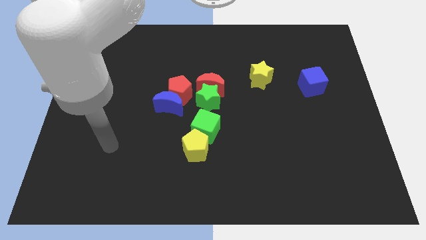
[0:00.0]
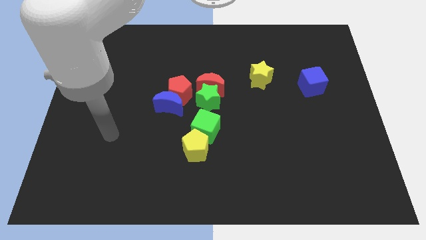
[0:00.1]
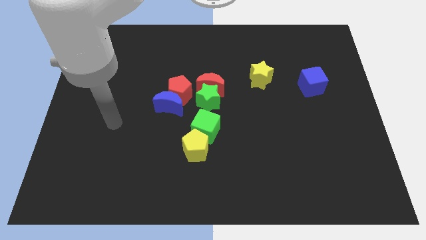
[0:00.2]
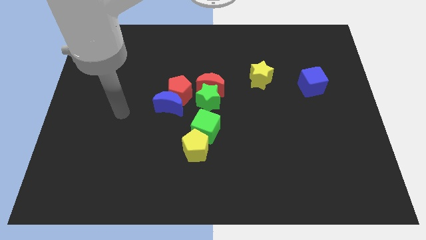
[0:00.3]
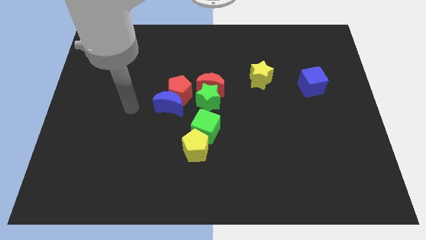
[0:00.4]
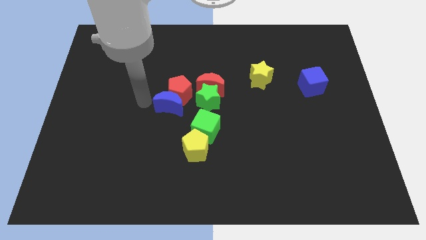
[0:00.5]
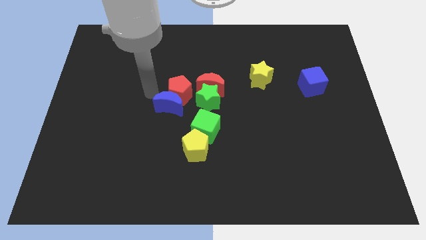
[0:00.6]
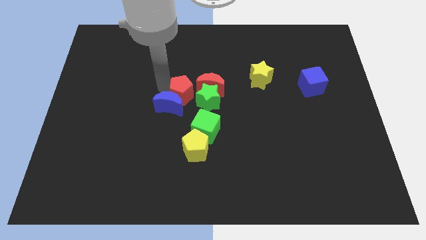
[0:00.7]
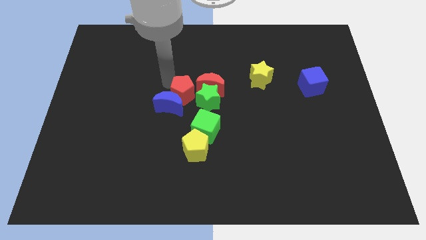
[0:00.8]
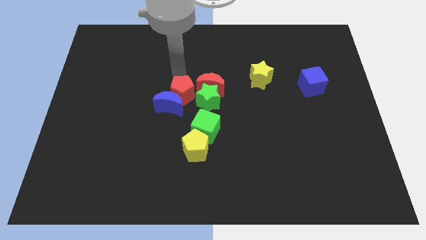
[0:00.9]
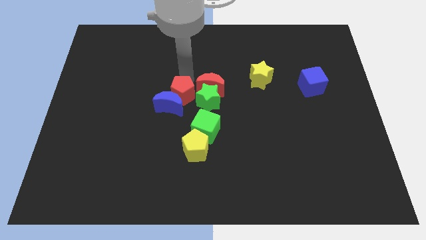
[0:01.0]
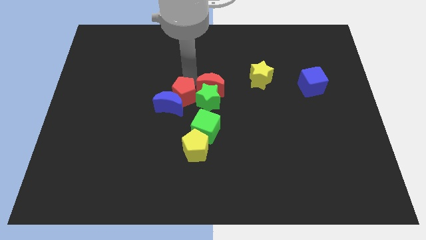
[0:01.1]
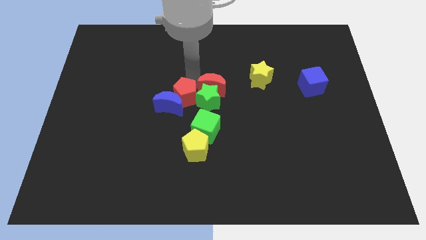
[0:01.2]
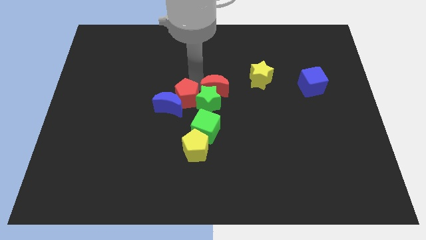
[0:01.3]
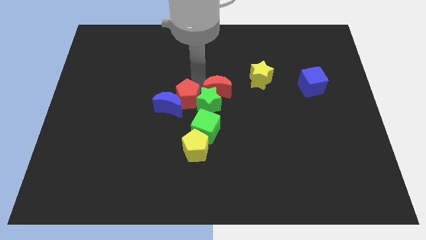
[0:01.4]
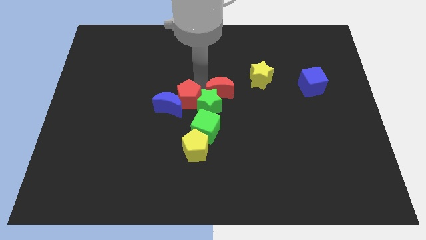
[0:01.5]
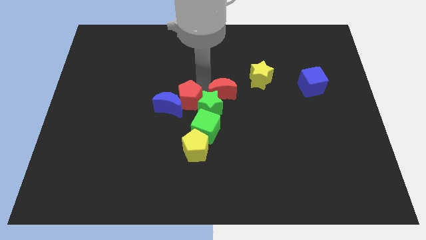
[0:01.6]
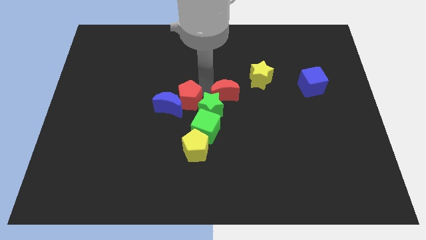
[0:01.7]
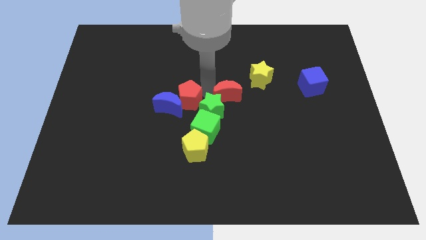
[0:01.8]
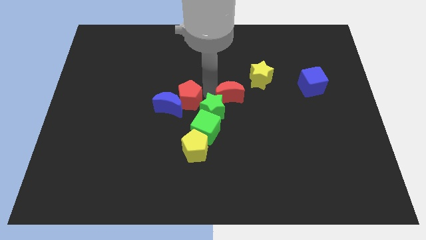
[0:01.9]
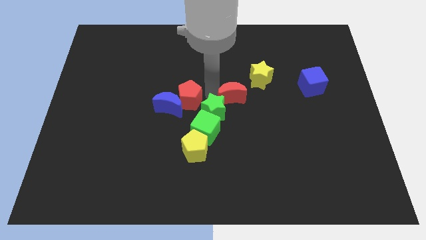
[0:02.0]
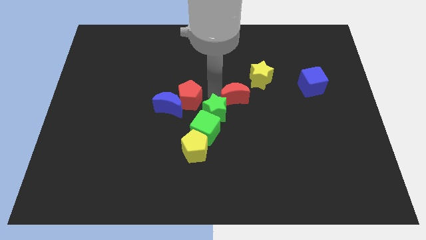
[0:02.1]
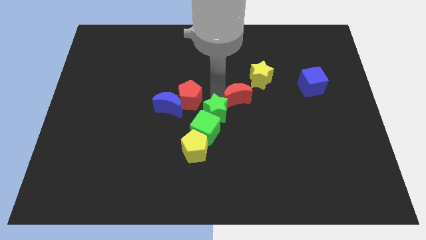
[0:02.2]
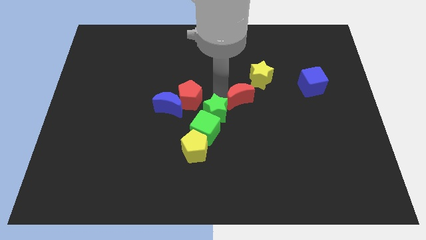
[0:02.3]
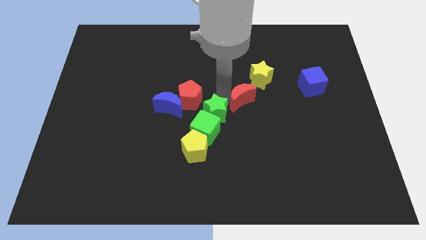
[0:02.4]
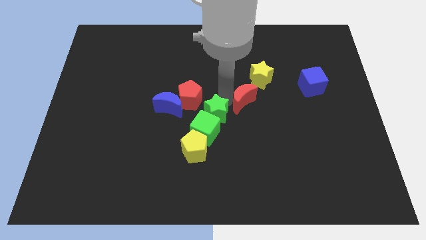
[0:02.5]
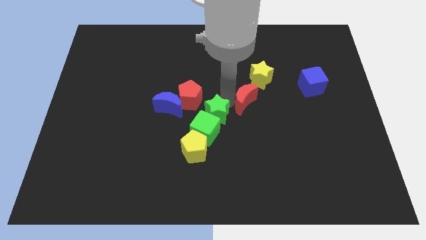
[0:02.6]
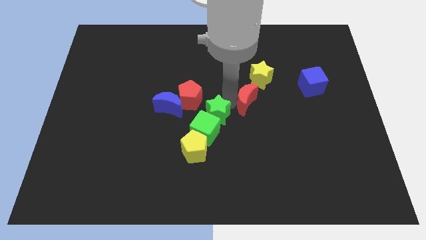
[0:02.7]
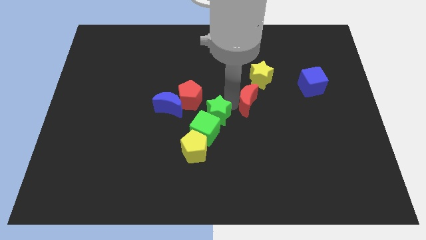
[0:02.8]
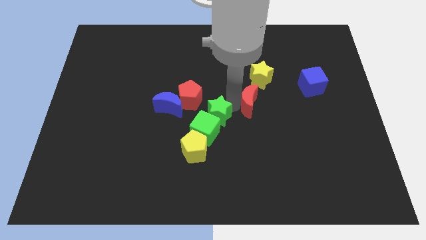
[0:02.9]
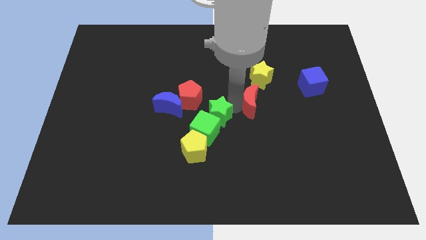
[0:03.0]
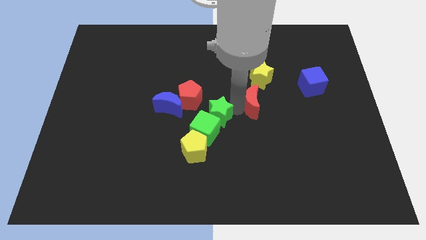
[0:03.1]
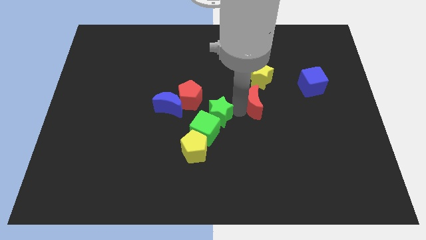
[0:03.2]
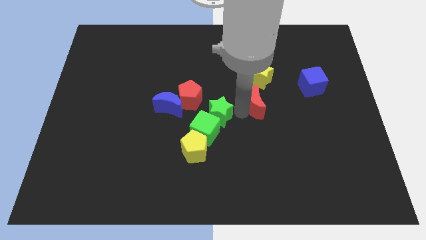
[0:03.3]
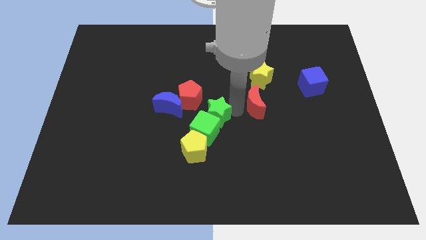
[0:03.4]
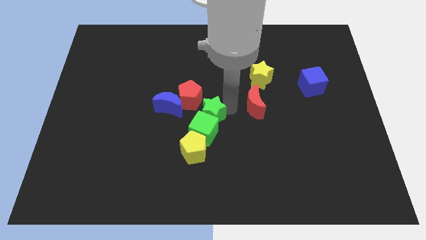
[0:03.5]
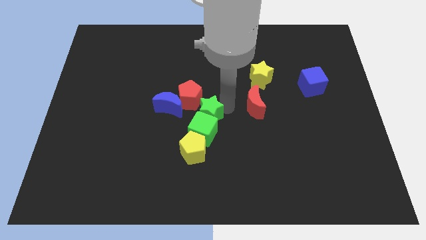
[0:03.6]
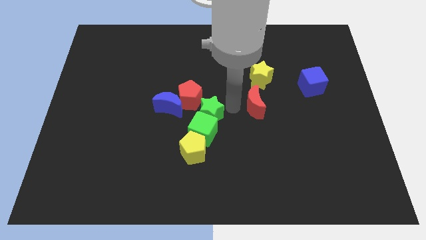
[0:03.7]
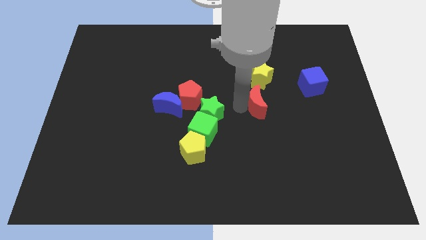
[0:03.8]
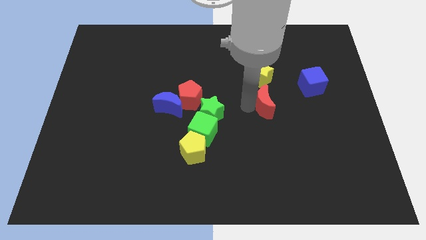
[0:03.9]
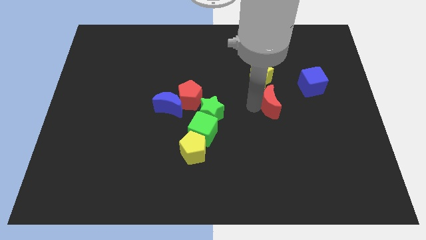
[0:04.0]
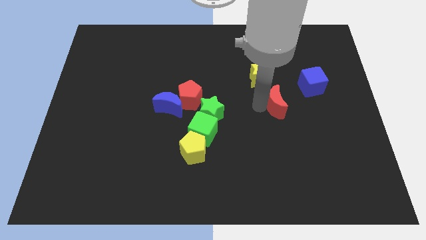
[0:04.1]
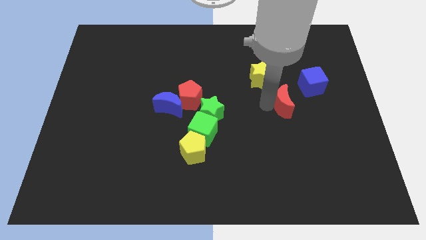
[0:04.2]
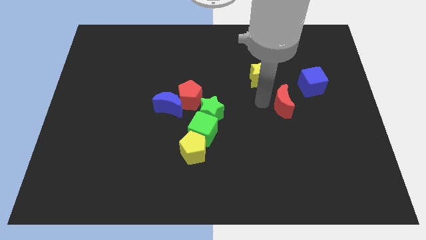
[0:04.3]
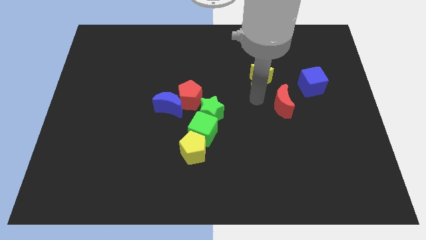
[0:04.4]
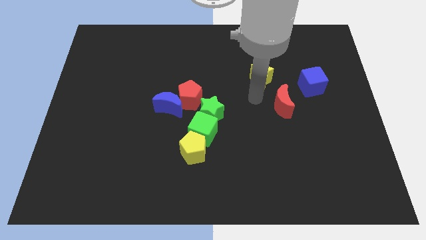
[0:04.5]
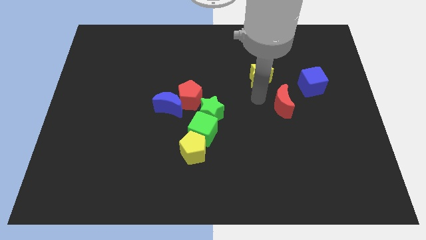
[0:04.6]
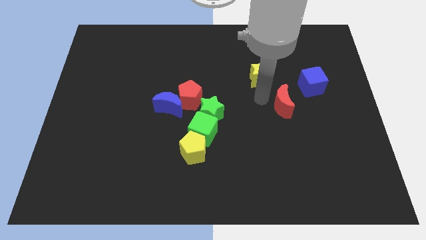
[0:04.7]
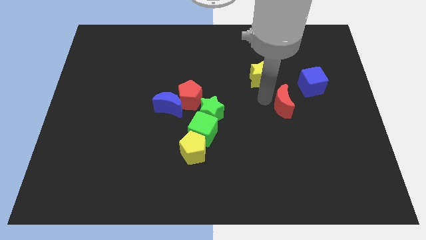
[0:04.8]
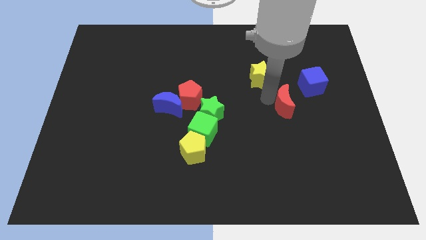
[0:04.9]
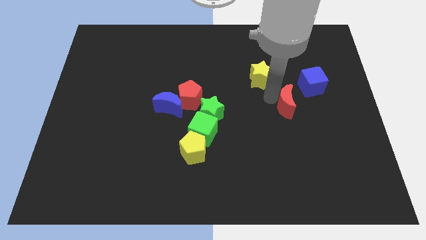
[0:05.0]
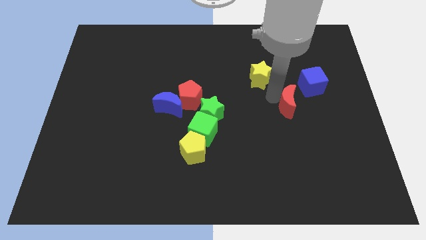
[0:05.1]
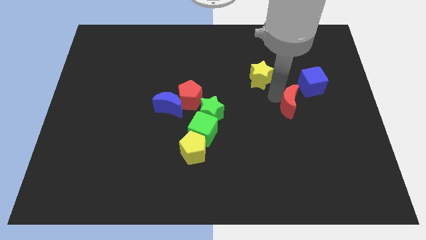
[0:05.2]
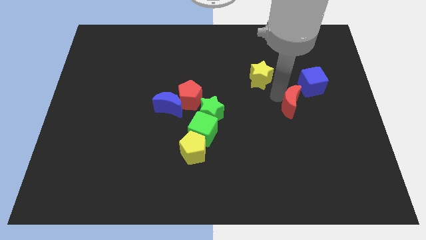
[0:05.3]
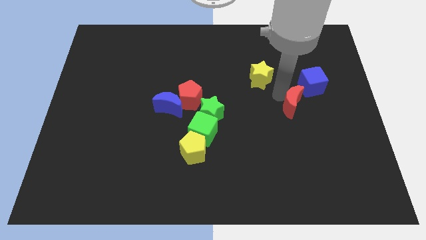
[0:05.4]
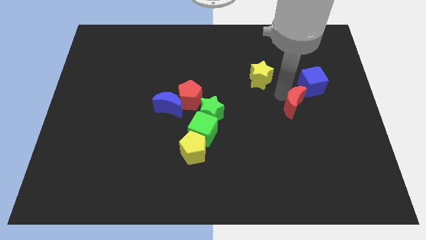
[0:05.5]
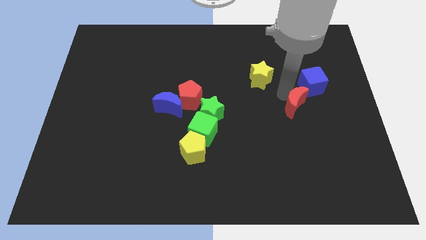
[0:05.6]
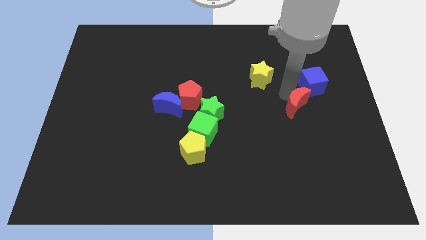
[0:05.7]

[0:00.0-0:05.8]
slide the red moon to the bottom side of the blue cube

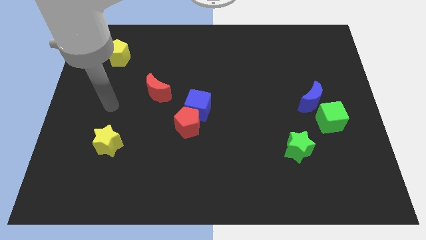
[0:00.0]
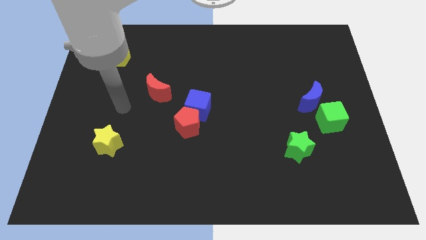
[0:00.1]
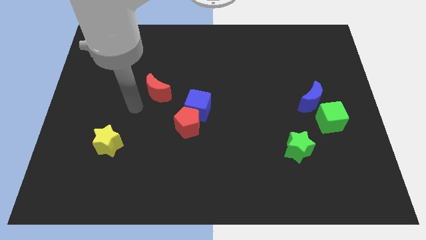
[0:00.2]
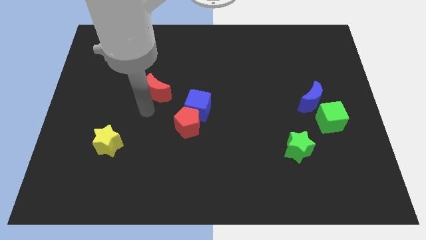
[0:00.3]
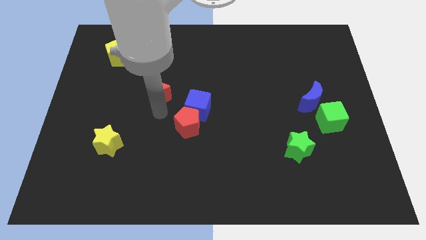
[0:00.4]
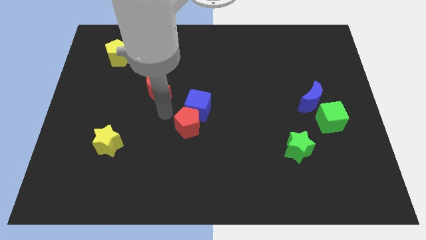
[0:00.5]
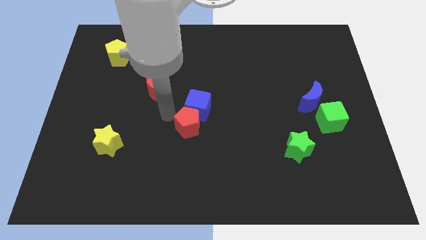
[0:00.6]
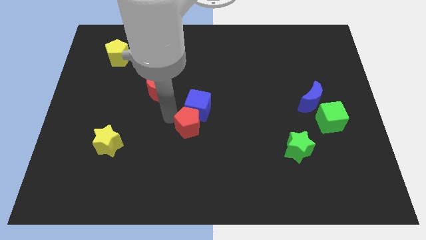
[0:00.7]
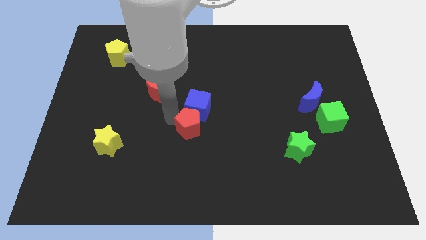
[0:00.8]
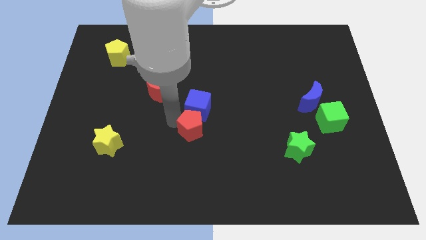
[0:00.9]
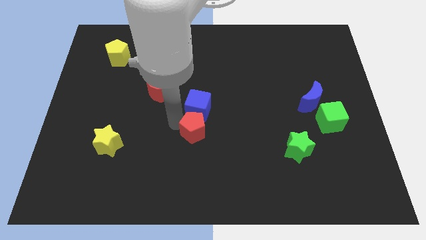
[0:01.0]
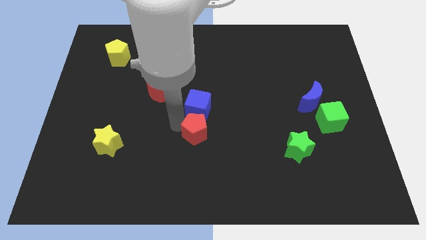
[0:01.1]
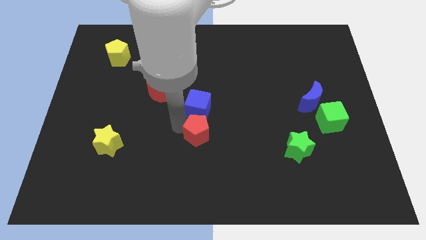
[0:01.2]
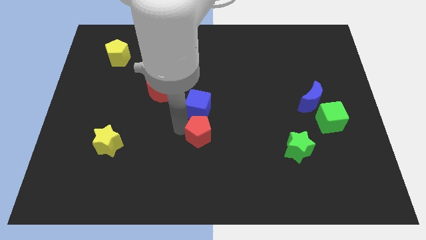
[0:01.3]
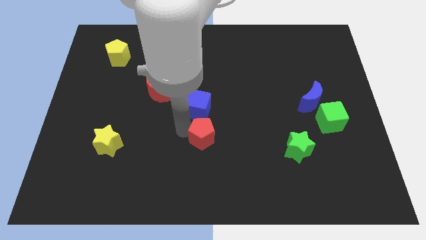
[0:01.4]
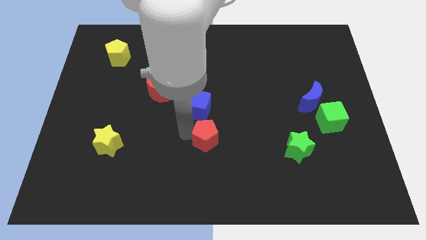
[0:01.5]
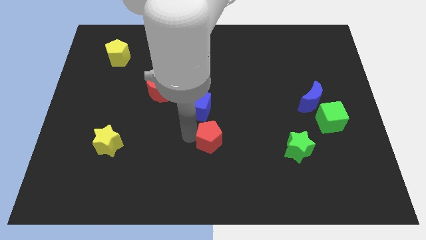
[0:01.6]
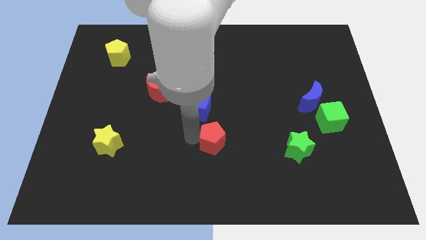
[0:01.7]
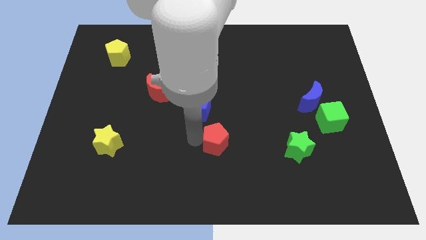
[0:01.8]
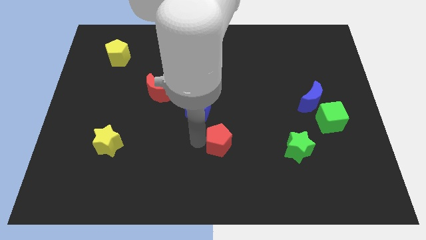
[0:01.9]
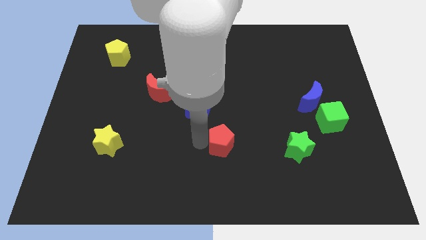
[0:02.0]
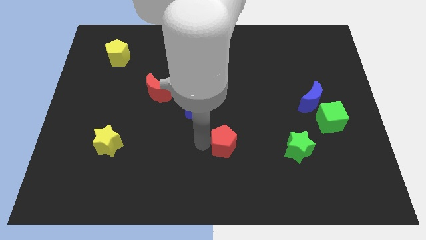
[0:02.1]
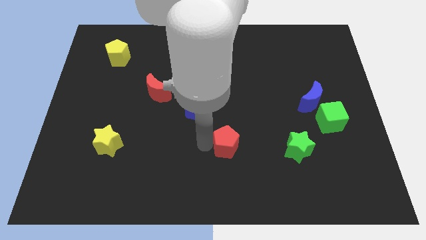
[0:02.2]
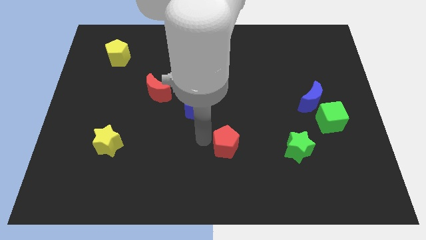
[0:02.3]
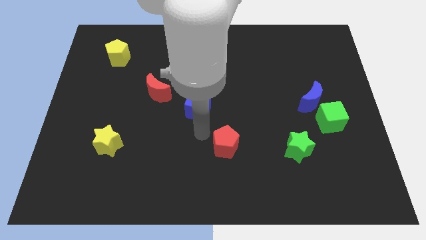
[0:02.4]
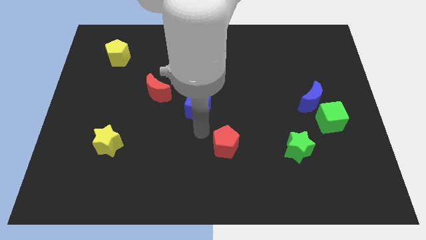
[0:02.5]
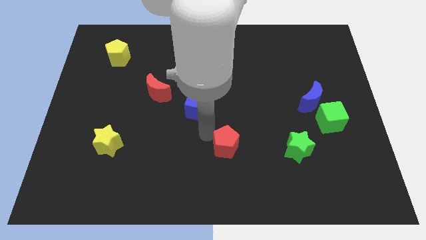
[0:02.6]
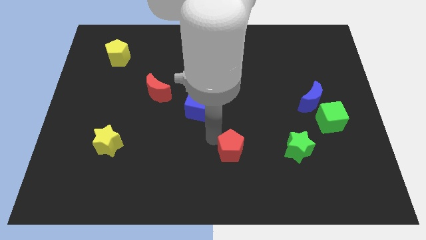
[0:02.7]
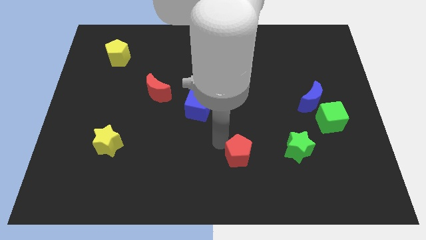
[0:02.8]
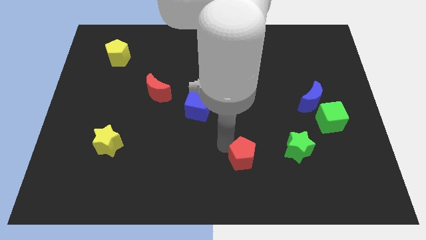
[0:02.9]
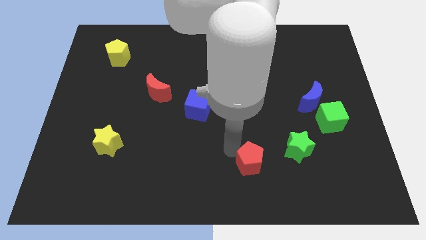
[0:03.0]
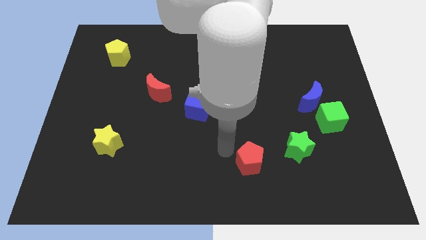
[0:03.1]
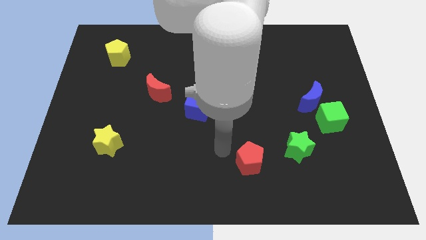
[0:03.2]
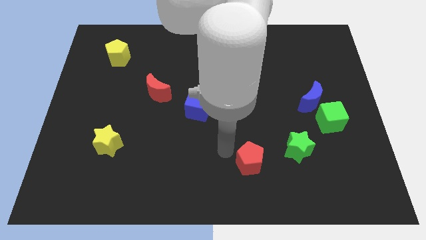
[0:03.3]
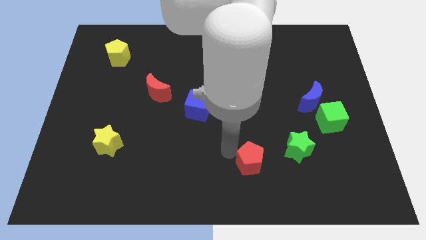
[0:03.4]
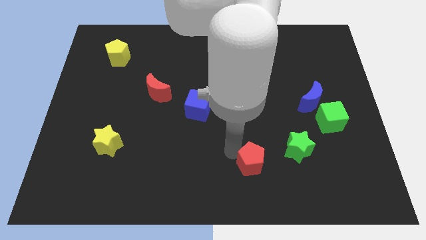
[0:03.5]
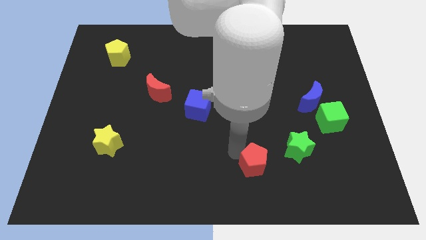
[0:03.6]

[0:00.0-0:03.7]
slide the red pentagon diagonally down and to the left of the green star
